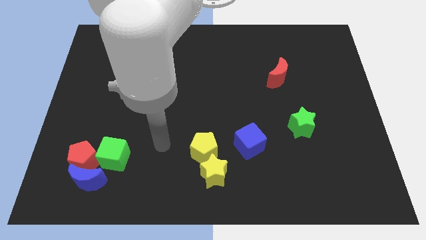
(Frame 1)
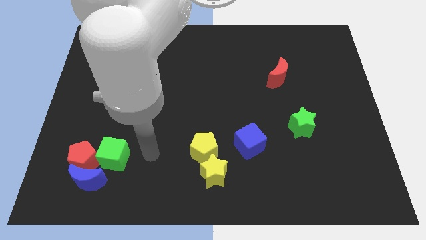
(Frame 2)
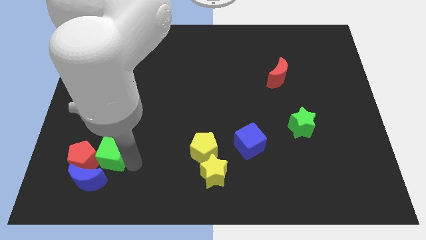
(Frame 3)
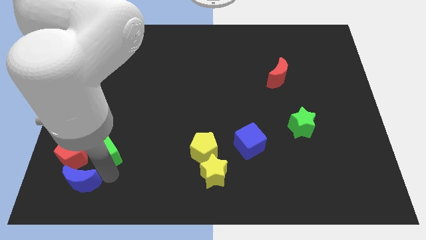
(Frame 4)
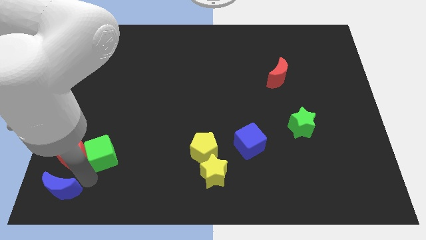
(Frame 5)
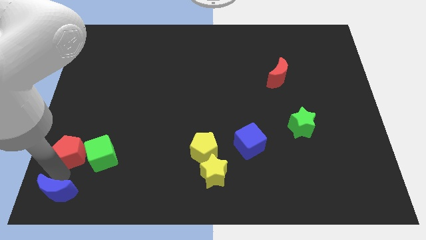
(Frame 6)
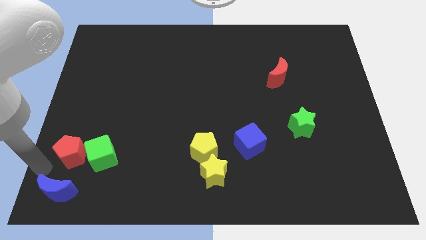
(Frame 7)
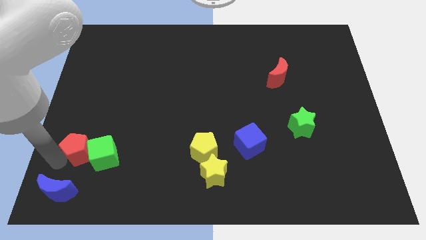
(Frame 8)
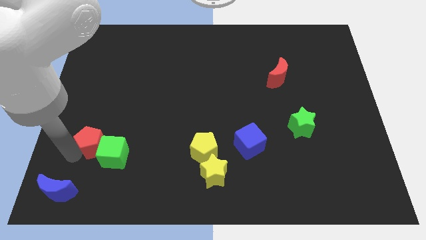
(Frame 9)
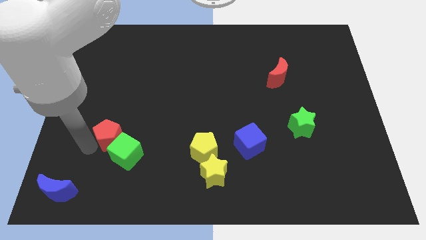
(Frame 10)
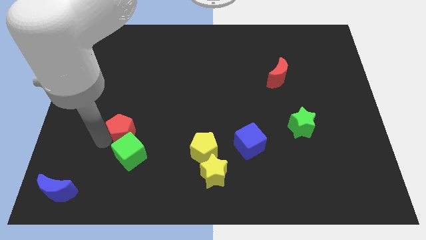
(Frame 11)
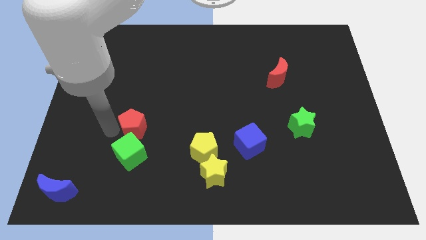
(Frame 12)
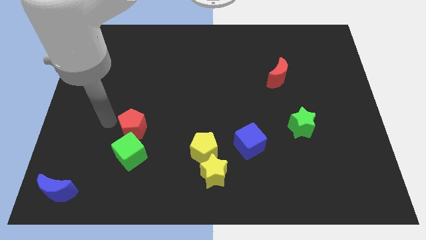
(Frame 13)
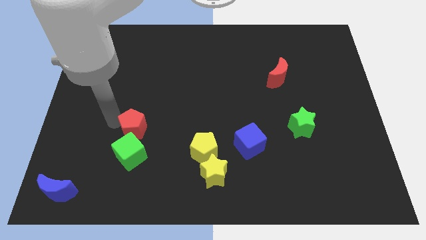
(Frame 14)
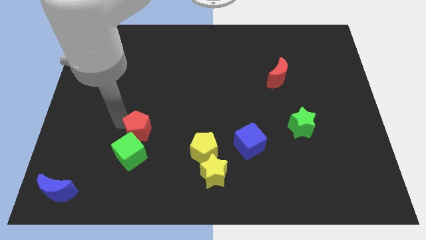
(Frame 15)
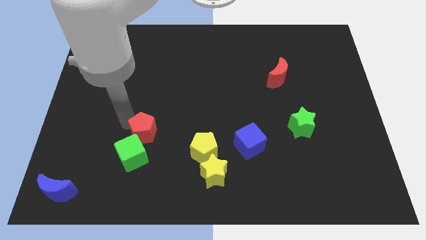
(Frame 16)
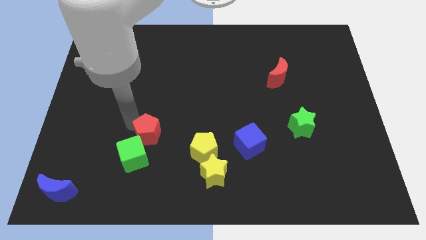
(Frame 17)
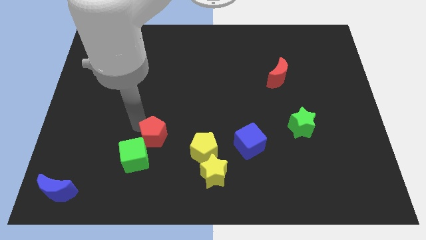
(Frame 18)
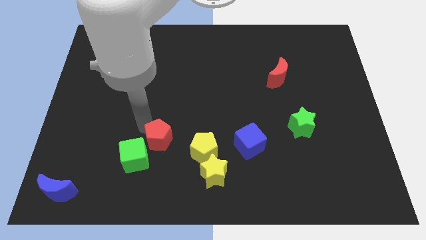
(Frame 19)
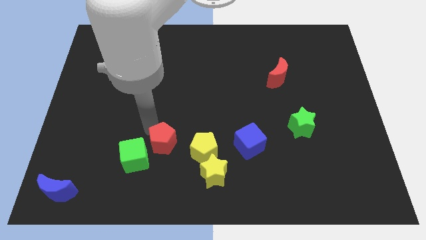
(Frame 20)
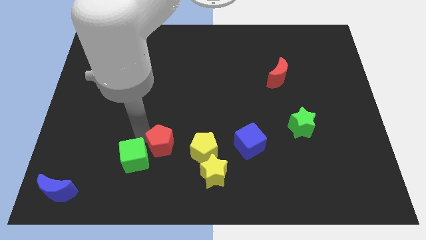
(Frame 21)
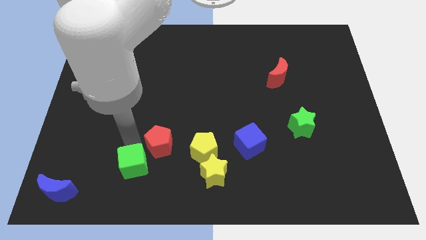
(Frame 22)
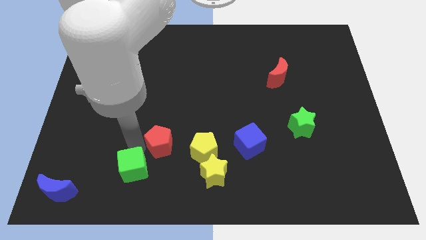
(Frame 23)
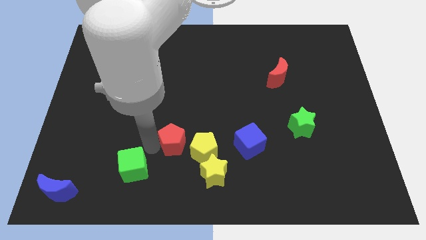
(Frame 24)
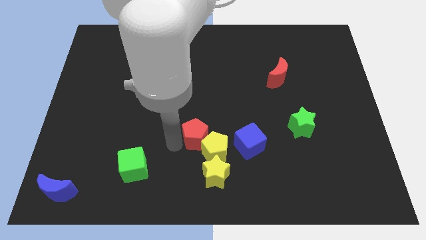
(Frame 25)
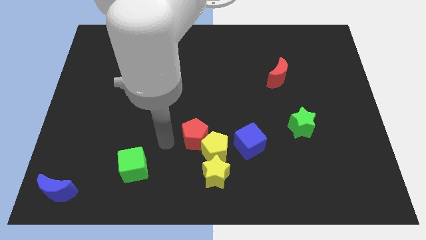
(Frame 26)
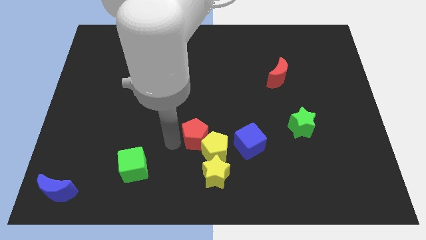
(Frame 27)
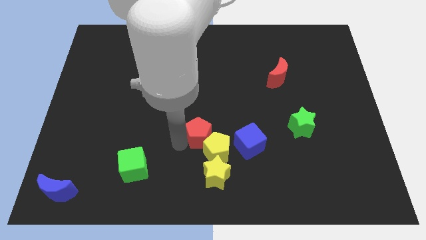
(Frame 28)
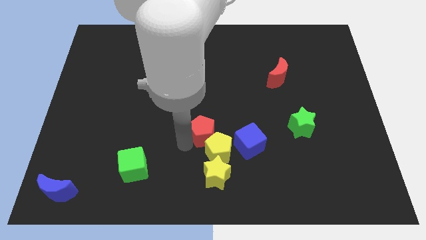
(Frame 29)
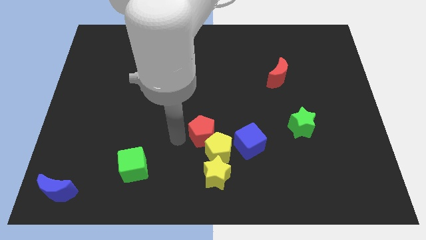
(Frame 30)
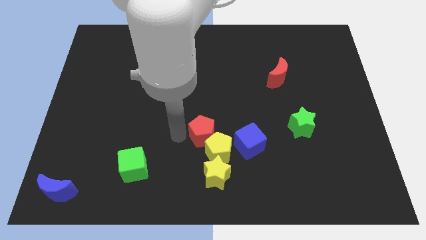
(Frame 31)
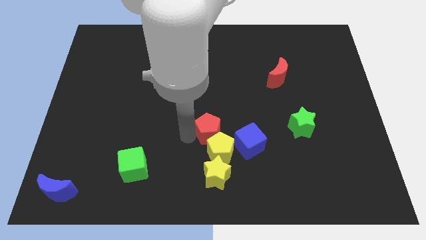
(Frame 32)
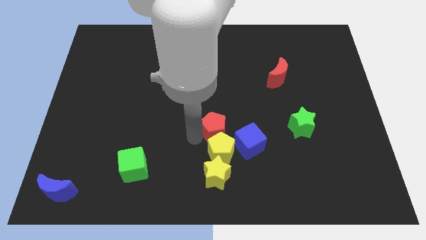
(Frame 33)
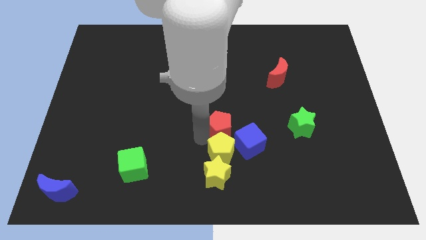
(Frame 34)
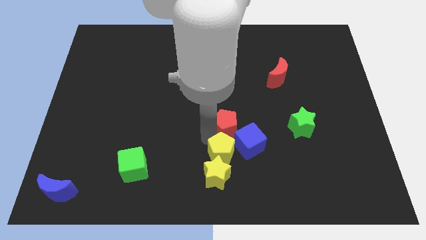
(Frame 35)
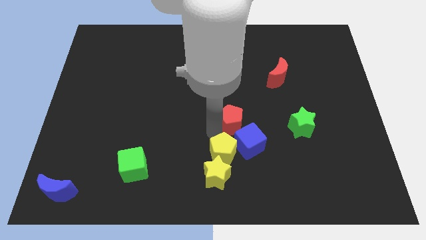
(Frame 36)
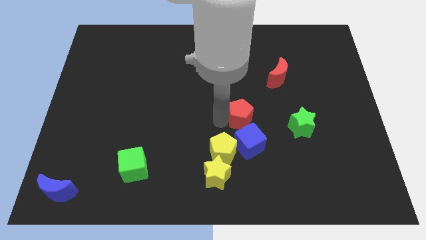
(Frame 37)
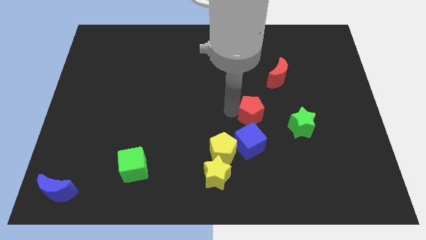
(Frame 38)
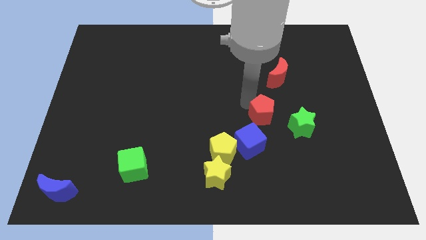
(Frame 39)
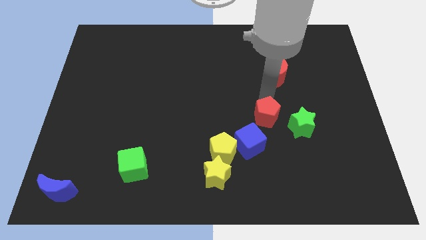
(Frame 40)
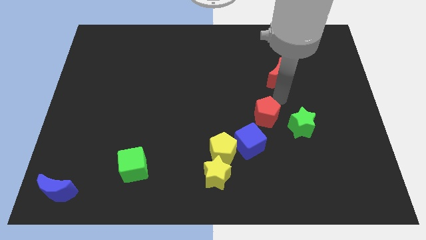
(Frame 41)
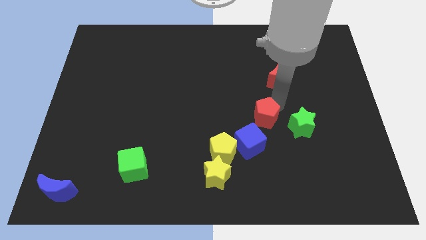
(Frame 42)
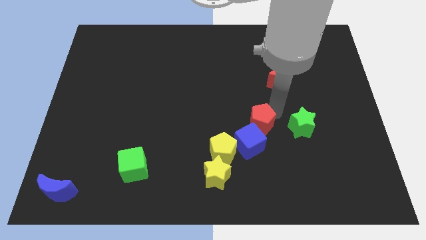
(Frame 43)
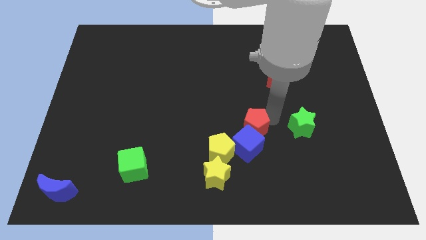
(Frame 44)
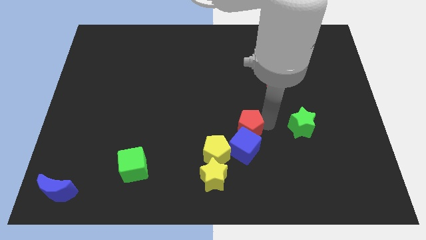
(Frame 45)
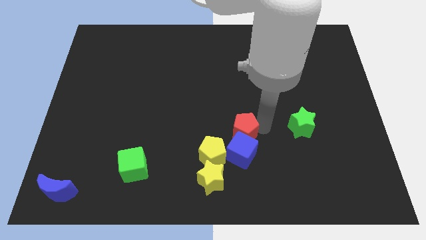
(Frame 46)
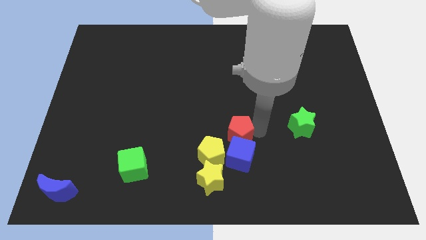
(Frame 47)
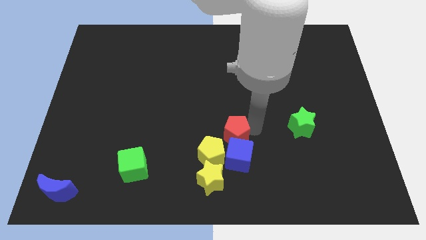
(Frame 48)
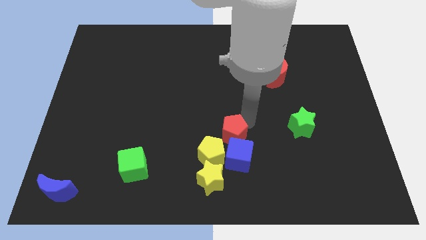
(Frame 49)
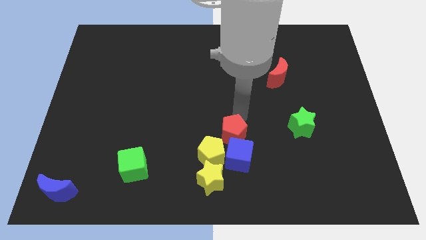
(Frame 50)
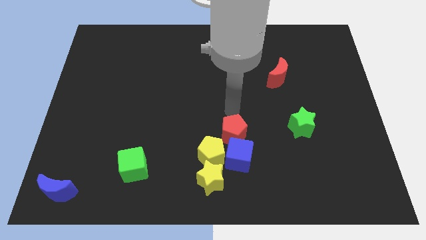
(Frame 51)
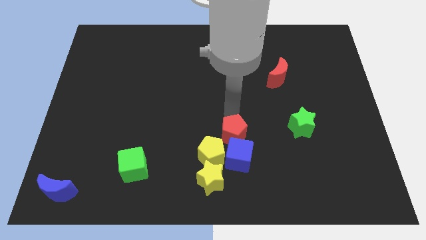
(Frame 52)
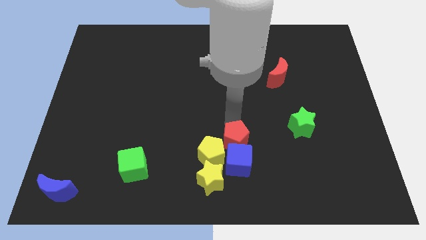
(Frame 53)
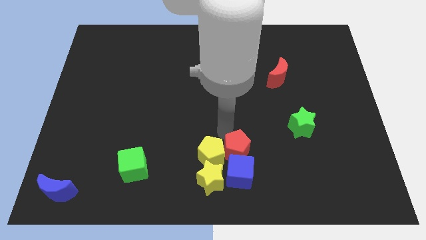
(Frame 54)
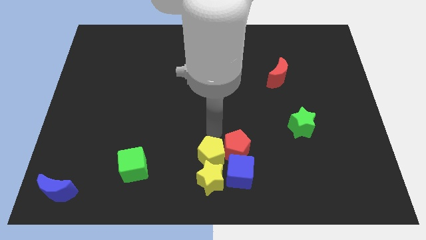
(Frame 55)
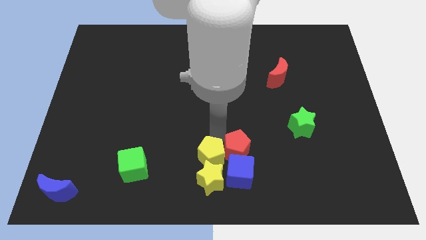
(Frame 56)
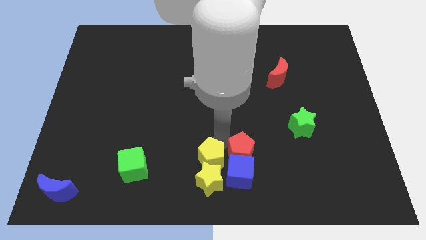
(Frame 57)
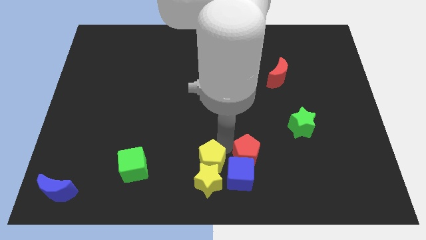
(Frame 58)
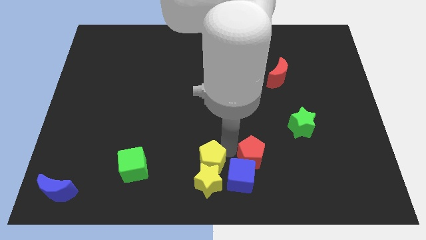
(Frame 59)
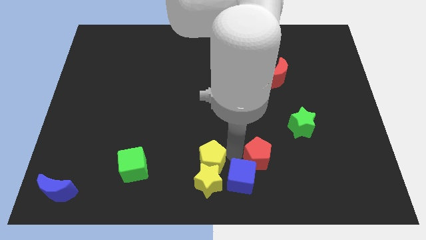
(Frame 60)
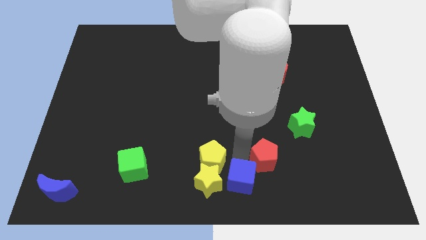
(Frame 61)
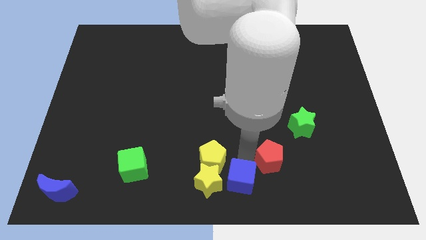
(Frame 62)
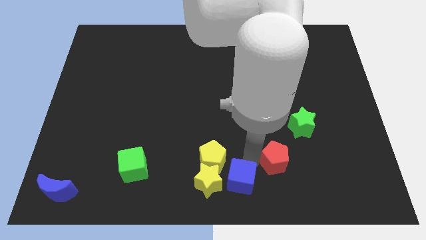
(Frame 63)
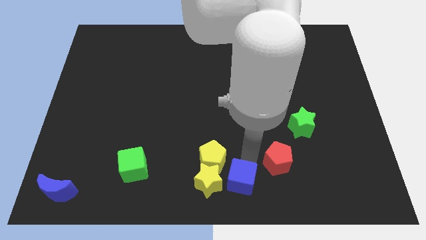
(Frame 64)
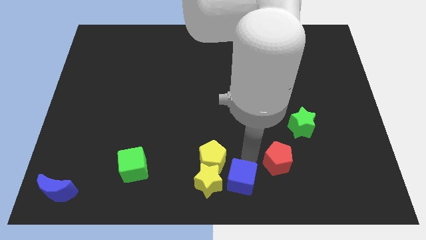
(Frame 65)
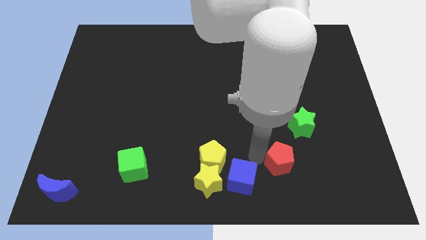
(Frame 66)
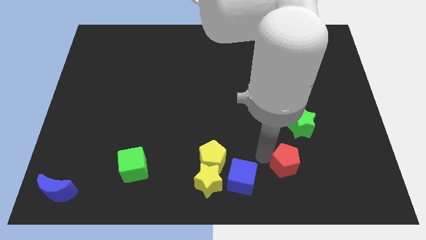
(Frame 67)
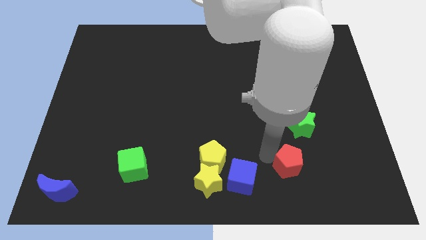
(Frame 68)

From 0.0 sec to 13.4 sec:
put the red pentagon to the bottom side of the green star
